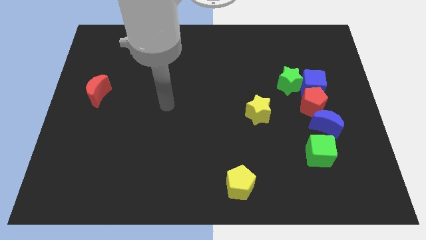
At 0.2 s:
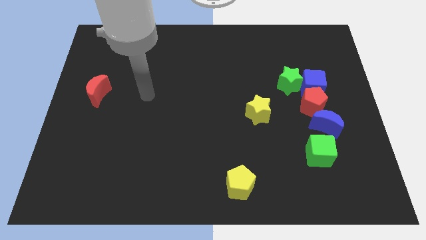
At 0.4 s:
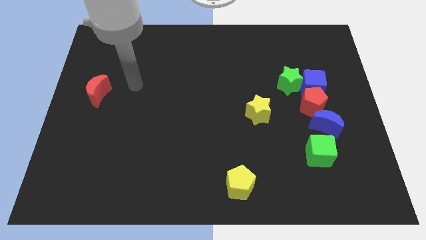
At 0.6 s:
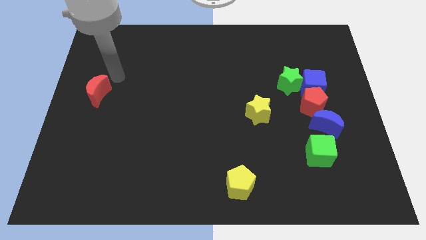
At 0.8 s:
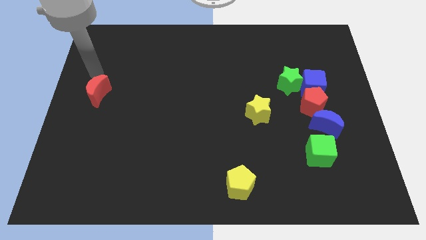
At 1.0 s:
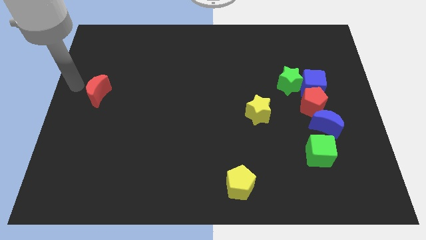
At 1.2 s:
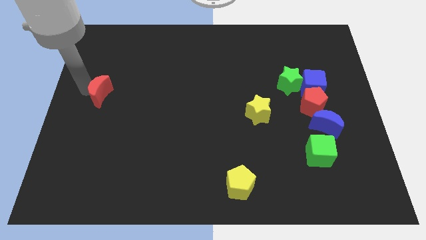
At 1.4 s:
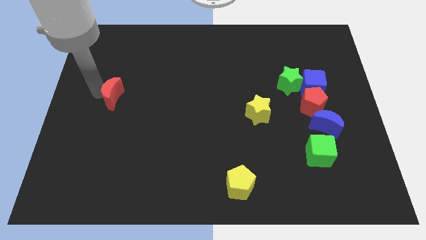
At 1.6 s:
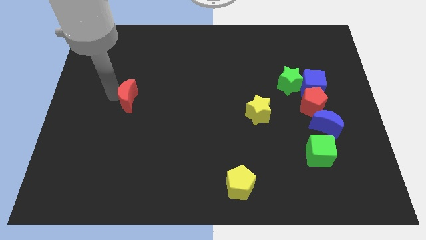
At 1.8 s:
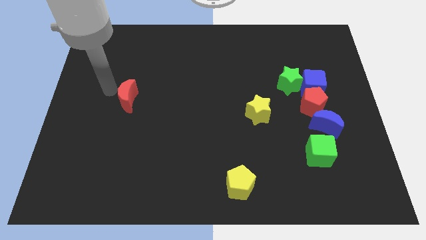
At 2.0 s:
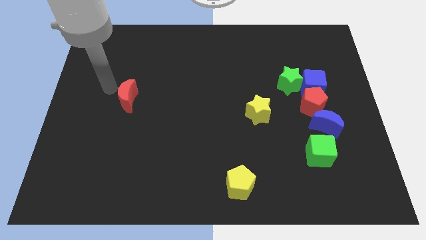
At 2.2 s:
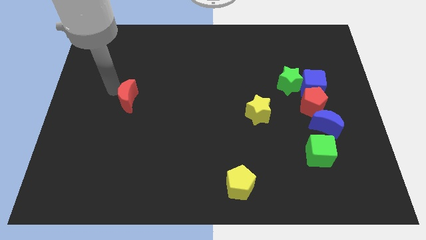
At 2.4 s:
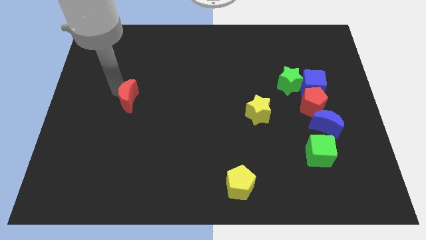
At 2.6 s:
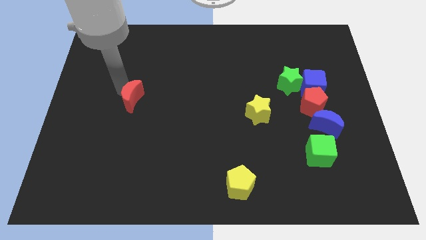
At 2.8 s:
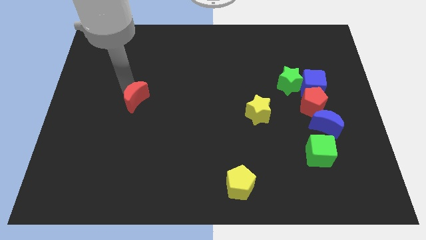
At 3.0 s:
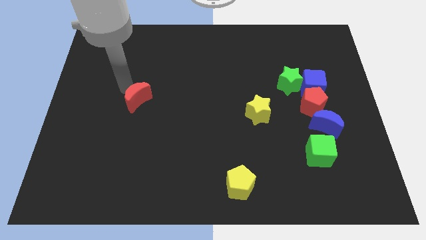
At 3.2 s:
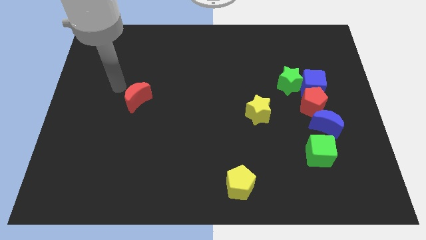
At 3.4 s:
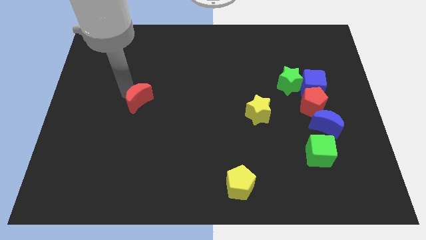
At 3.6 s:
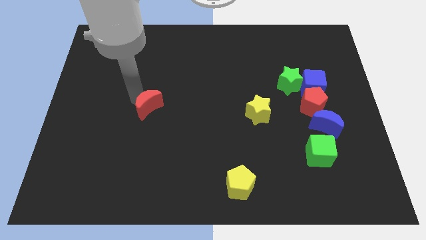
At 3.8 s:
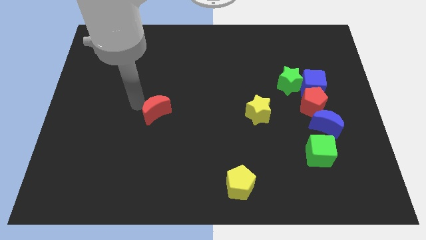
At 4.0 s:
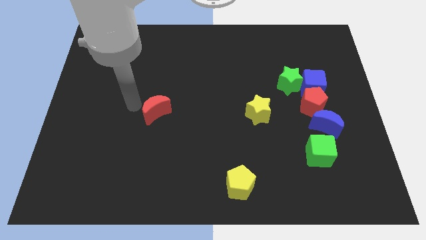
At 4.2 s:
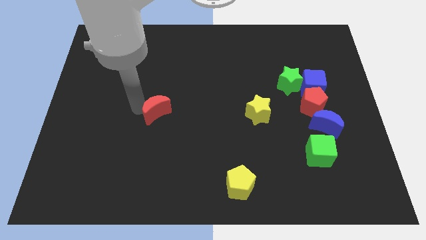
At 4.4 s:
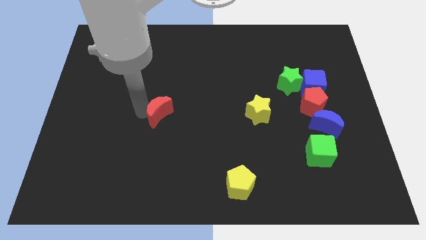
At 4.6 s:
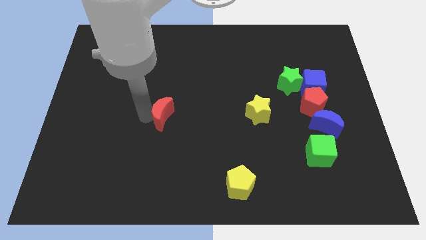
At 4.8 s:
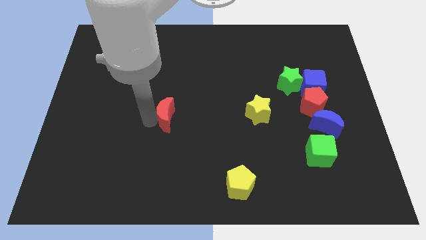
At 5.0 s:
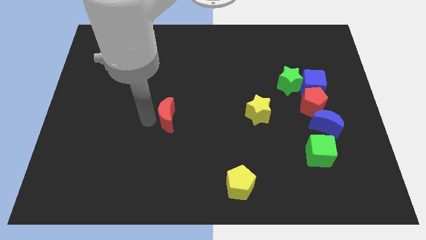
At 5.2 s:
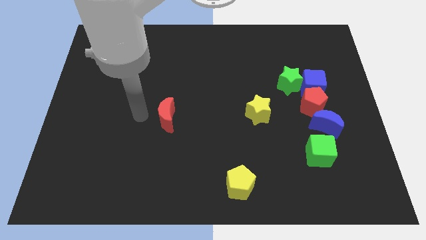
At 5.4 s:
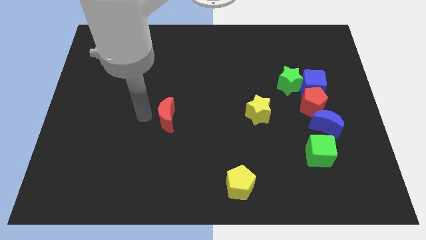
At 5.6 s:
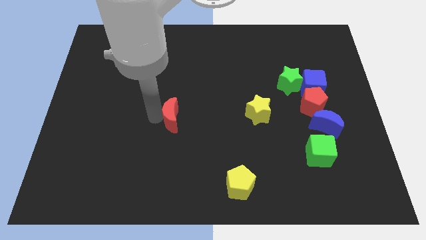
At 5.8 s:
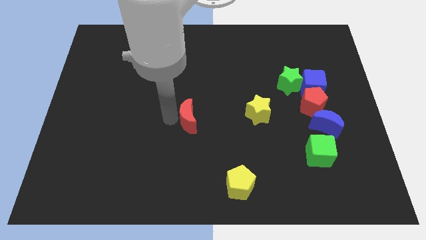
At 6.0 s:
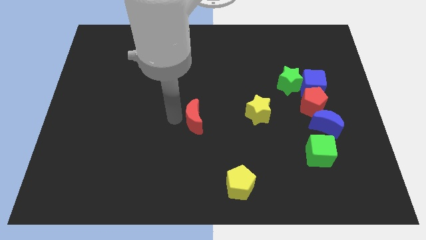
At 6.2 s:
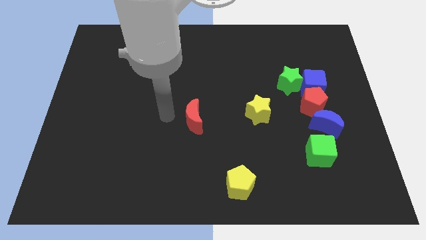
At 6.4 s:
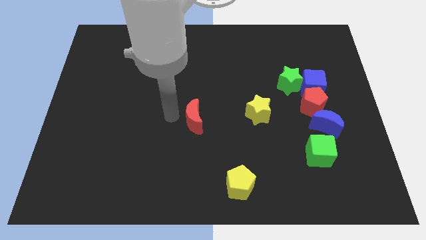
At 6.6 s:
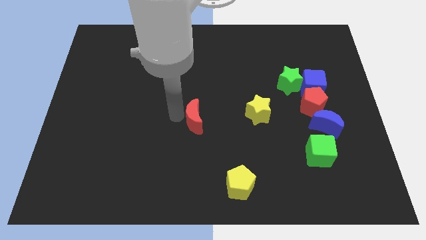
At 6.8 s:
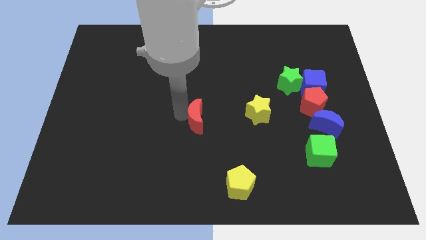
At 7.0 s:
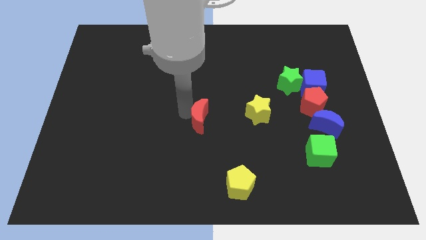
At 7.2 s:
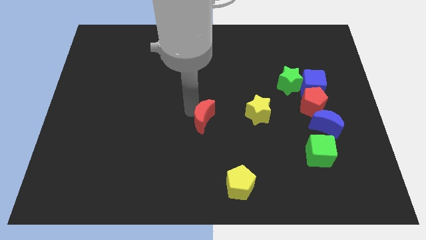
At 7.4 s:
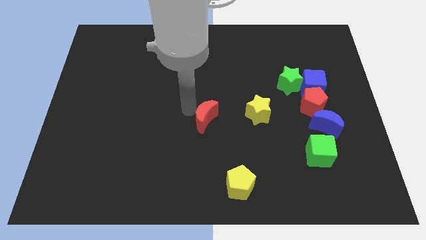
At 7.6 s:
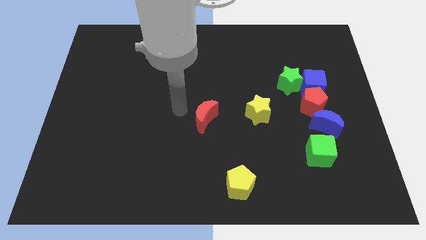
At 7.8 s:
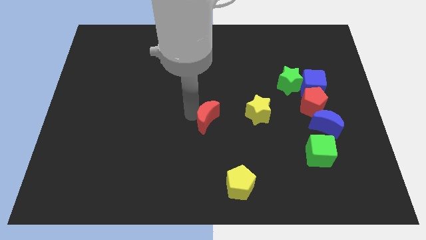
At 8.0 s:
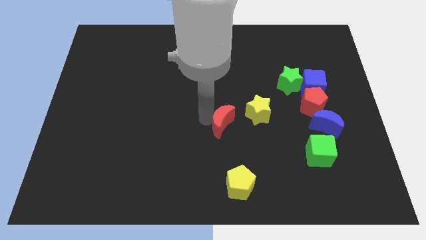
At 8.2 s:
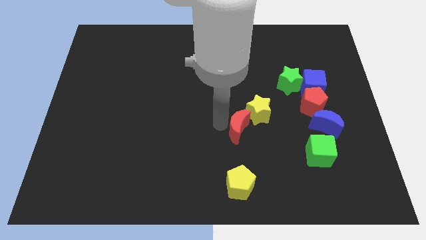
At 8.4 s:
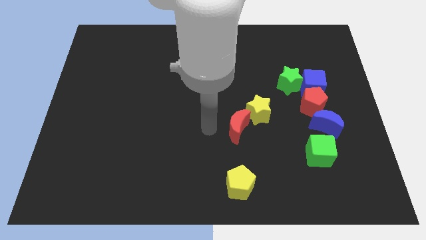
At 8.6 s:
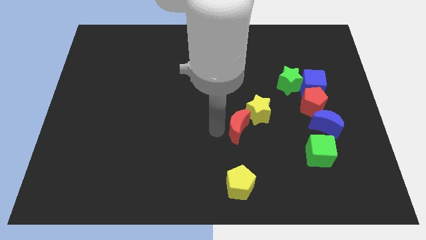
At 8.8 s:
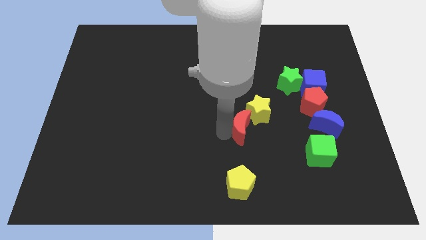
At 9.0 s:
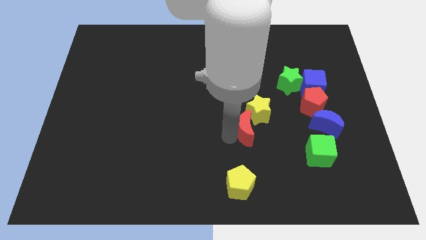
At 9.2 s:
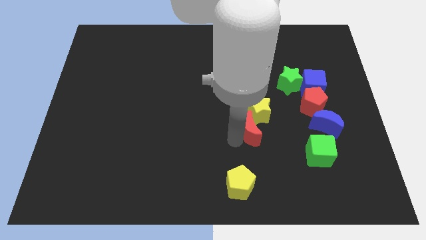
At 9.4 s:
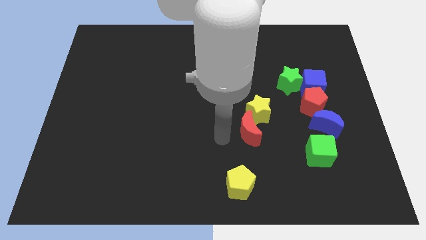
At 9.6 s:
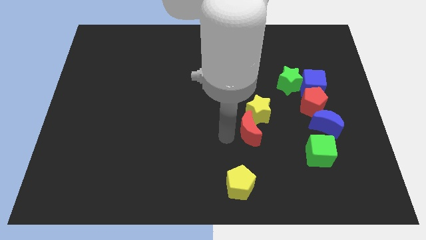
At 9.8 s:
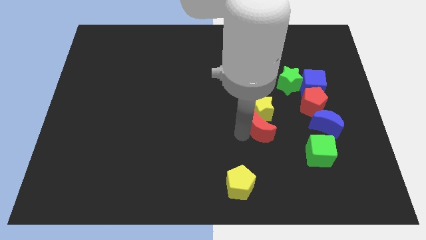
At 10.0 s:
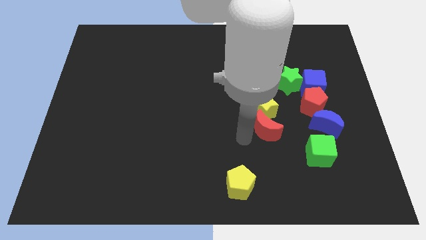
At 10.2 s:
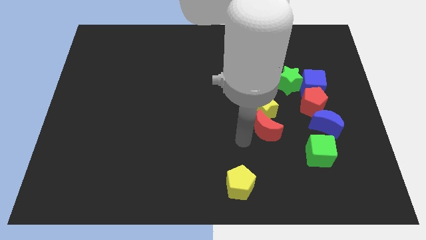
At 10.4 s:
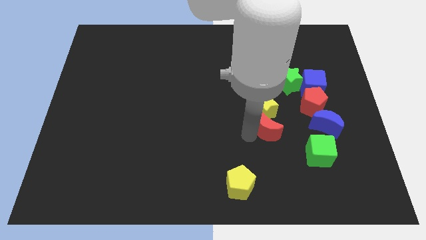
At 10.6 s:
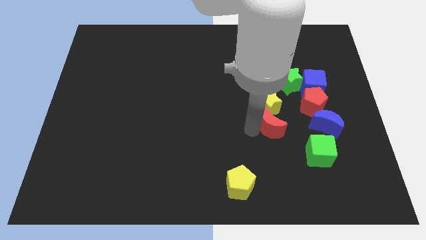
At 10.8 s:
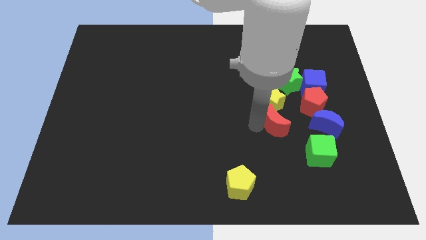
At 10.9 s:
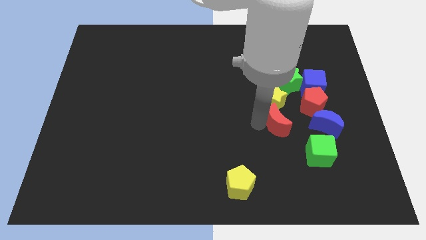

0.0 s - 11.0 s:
push the red moon to the bottom of the green star

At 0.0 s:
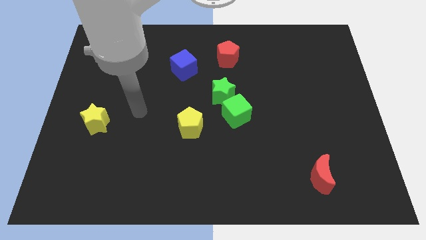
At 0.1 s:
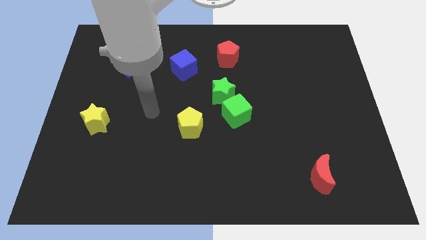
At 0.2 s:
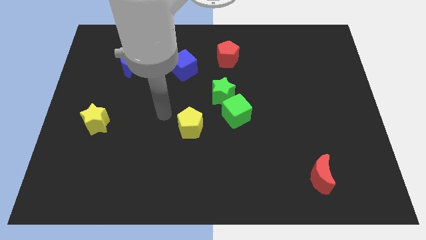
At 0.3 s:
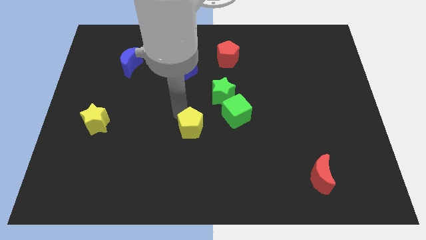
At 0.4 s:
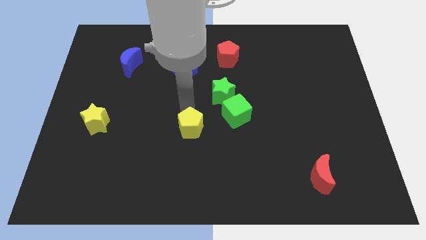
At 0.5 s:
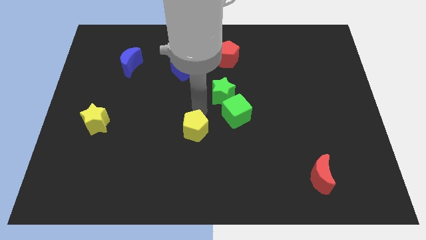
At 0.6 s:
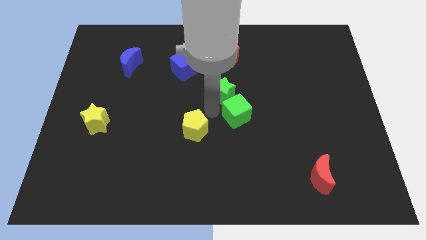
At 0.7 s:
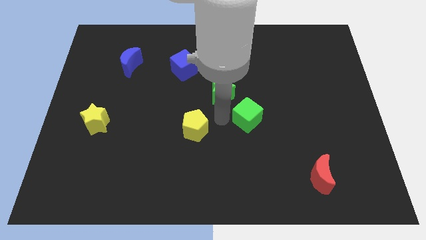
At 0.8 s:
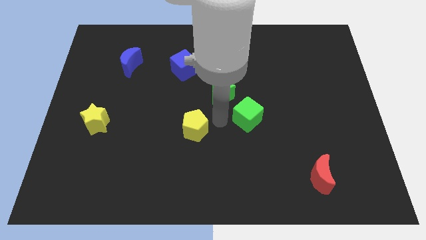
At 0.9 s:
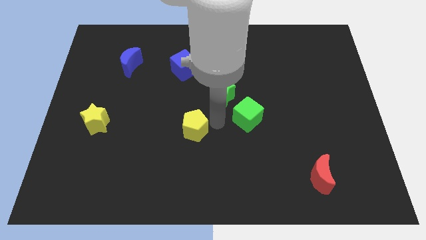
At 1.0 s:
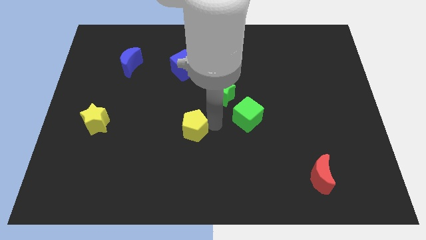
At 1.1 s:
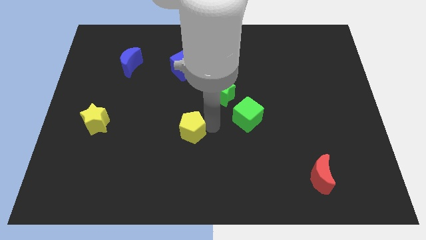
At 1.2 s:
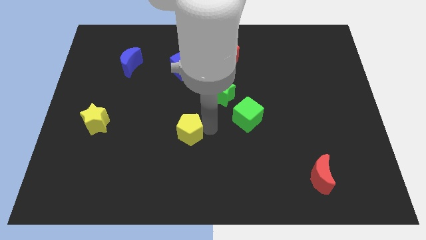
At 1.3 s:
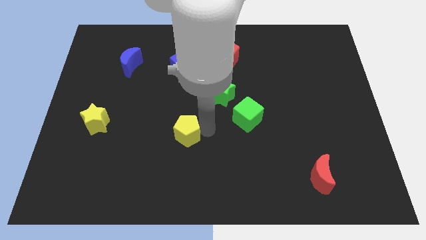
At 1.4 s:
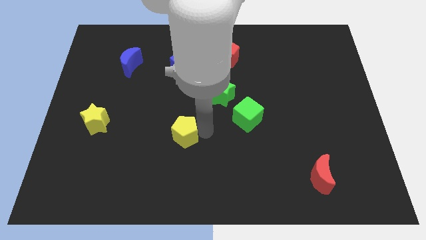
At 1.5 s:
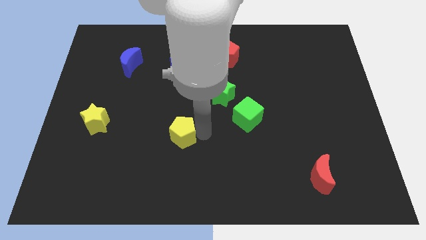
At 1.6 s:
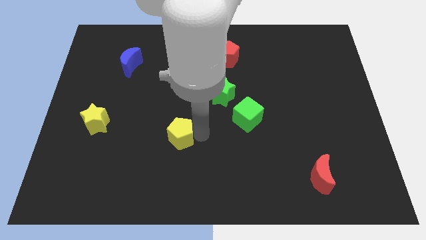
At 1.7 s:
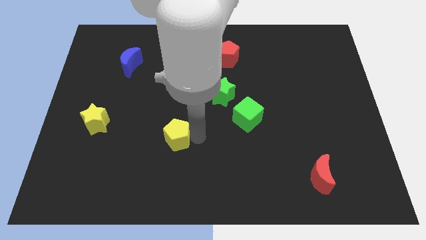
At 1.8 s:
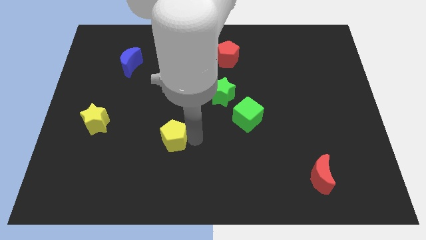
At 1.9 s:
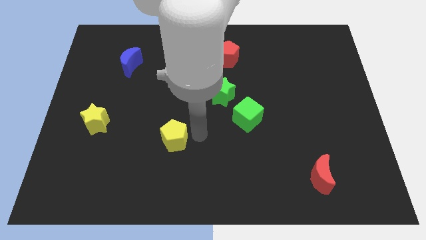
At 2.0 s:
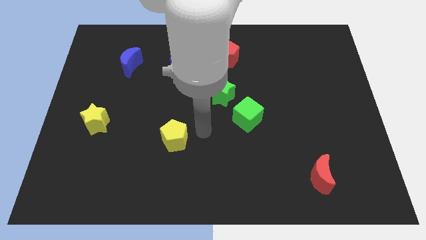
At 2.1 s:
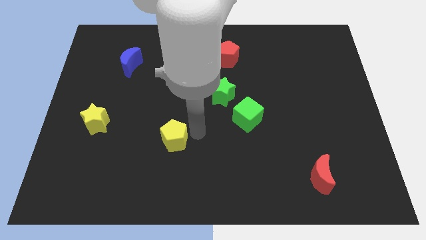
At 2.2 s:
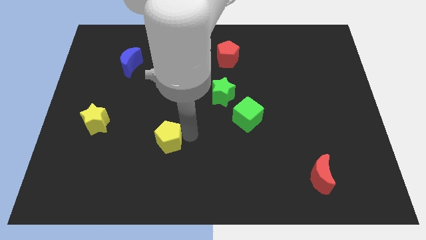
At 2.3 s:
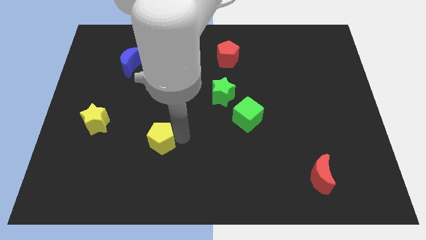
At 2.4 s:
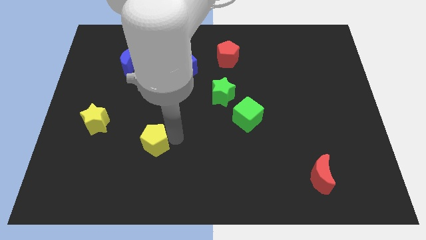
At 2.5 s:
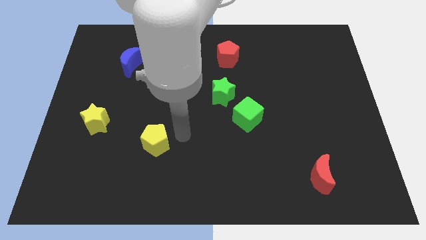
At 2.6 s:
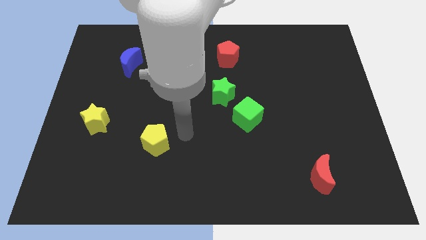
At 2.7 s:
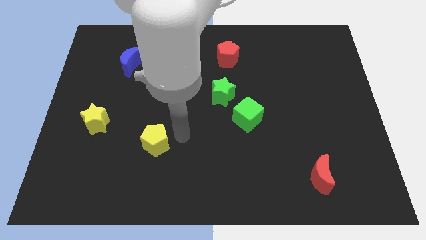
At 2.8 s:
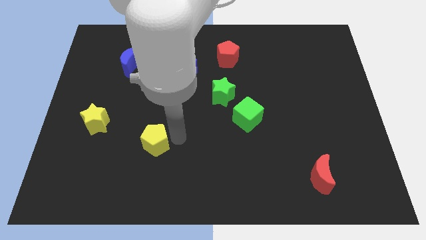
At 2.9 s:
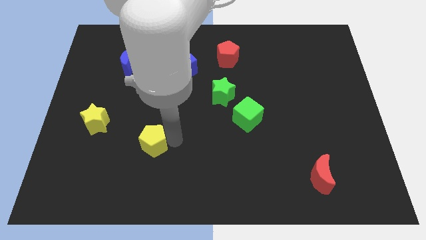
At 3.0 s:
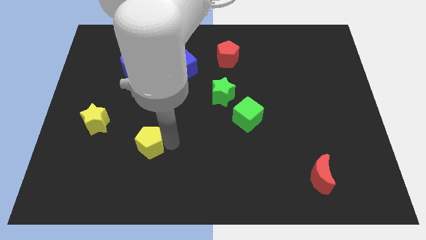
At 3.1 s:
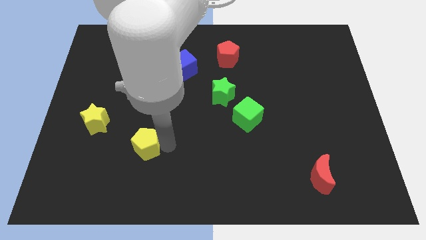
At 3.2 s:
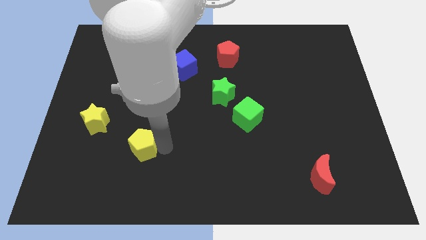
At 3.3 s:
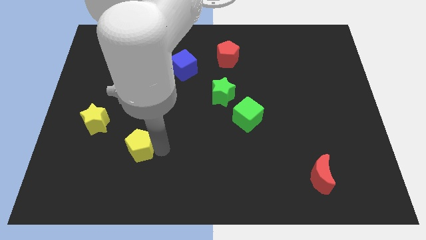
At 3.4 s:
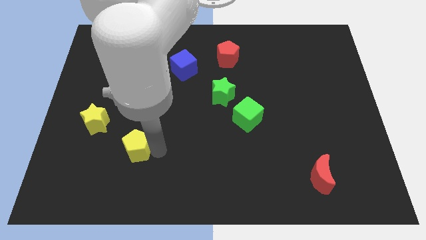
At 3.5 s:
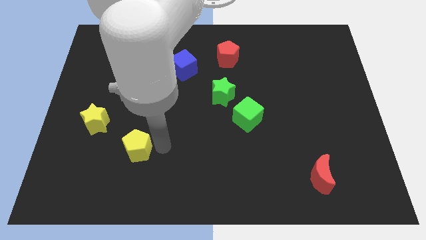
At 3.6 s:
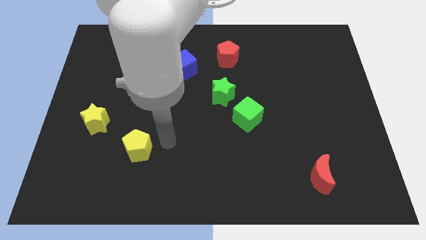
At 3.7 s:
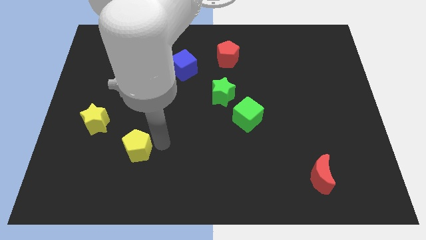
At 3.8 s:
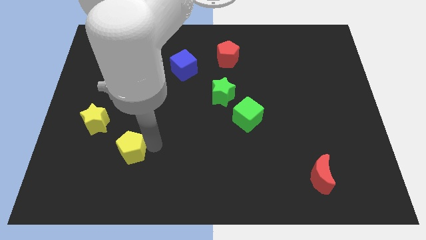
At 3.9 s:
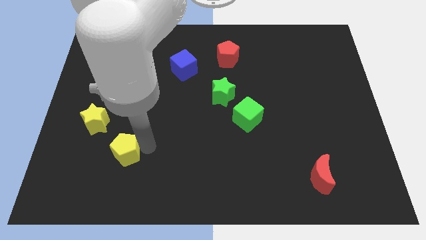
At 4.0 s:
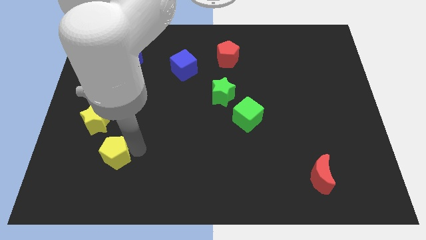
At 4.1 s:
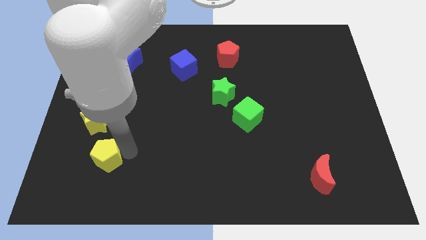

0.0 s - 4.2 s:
slide the yellow pentagon to the bottom of the yellow star
